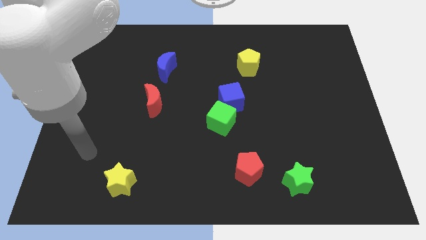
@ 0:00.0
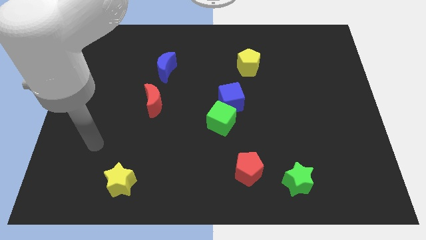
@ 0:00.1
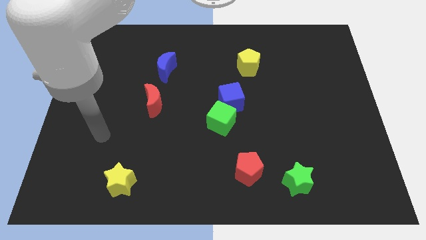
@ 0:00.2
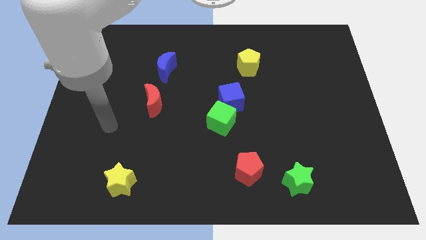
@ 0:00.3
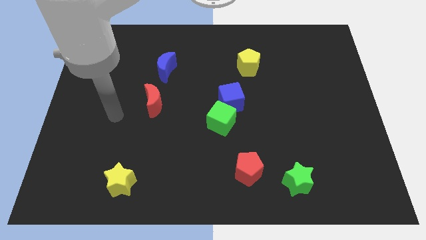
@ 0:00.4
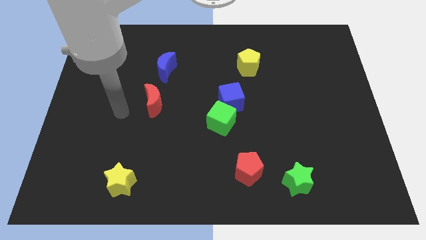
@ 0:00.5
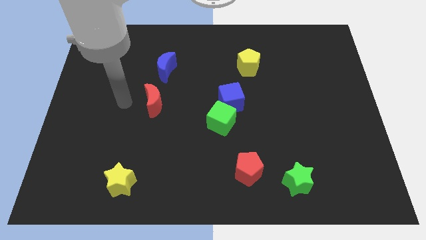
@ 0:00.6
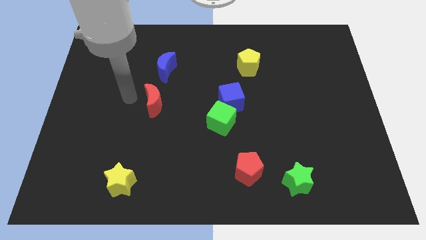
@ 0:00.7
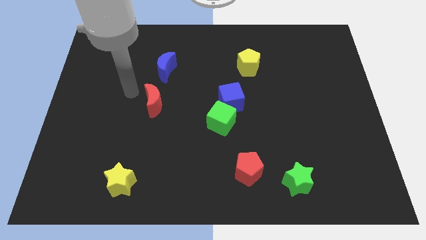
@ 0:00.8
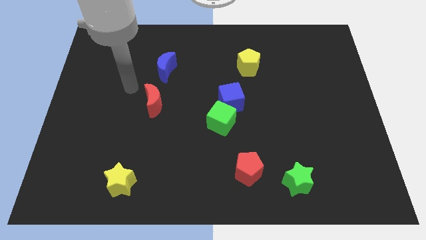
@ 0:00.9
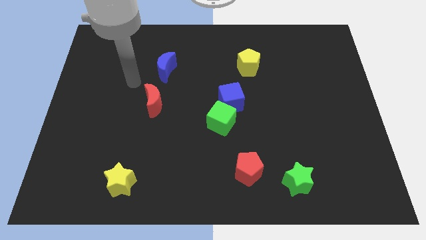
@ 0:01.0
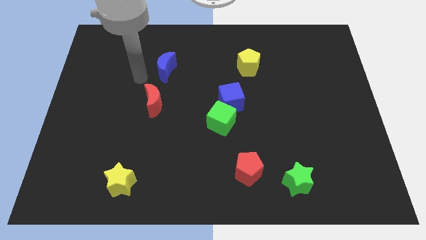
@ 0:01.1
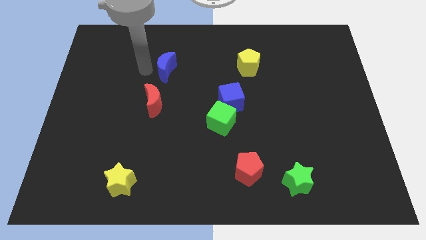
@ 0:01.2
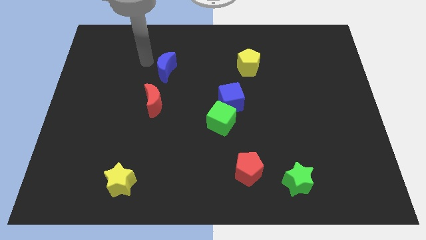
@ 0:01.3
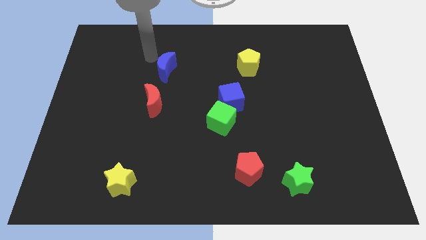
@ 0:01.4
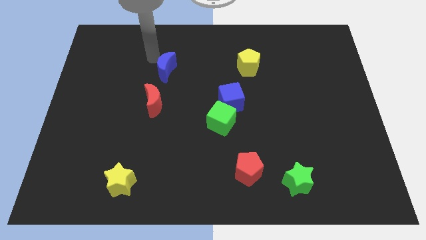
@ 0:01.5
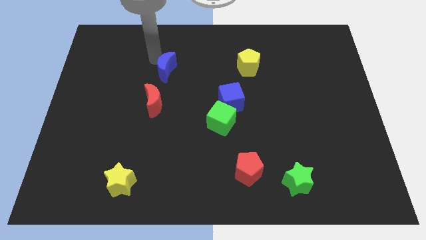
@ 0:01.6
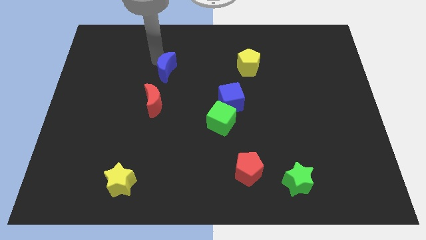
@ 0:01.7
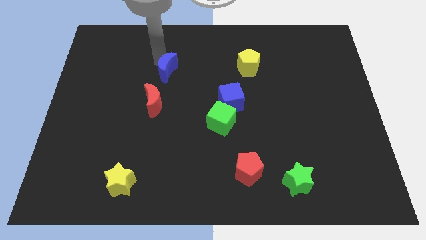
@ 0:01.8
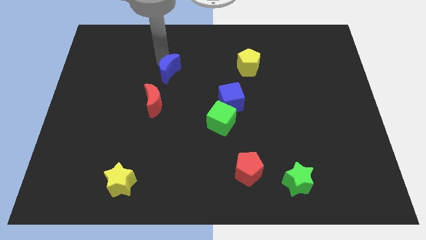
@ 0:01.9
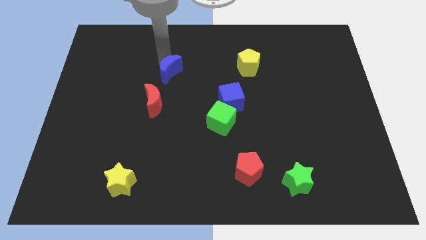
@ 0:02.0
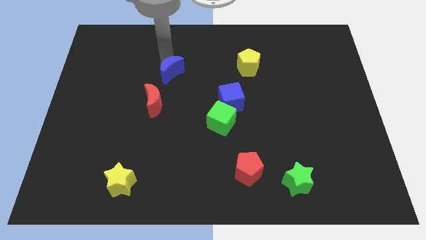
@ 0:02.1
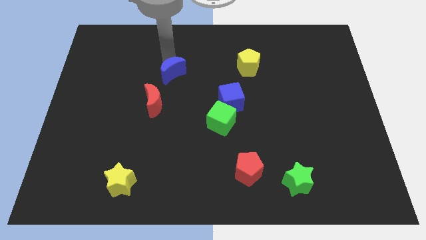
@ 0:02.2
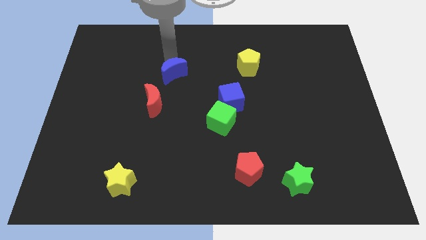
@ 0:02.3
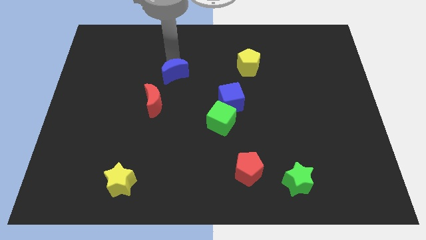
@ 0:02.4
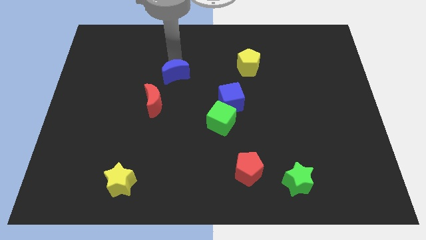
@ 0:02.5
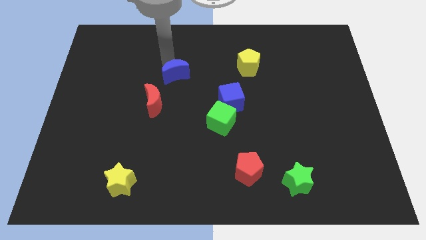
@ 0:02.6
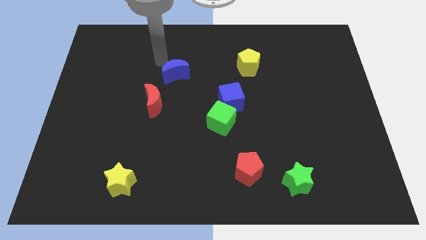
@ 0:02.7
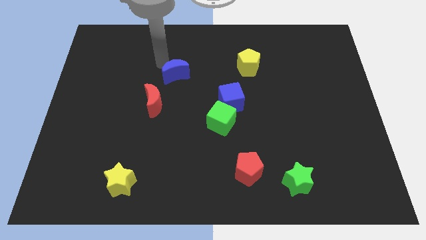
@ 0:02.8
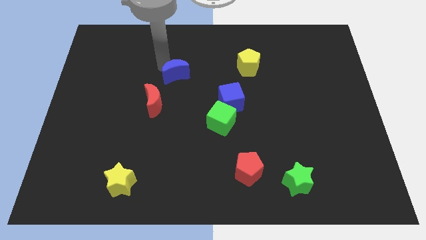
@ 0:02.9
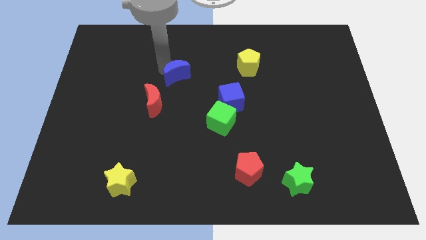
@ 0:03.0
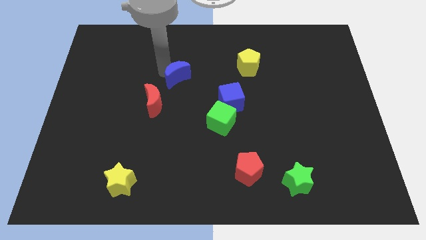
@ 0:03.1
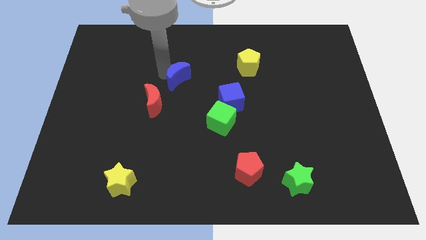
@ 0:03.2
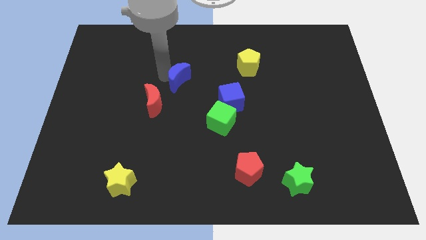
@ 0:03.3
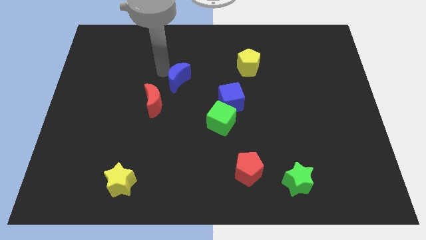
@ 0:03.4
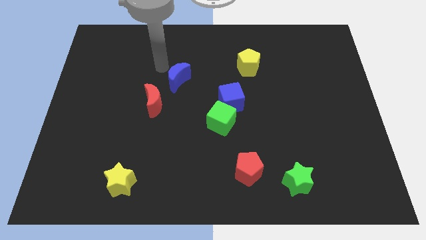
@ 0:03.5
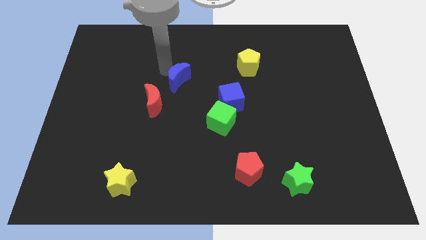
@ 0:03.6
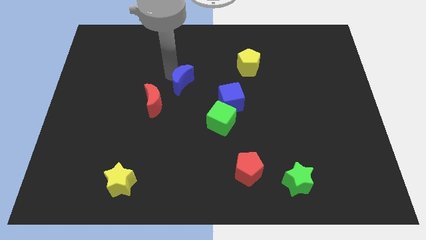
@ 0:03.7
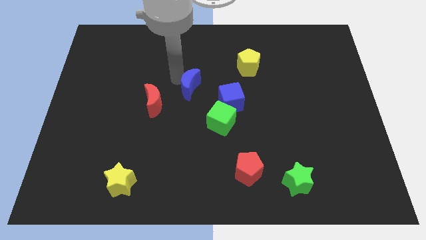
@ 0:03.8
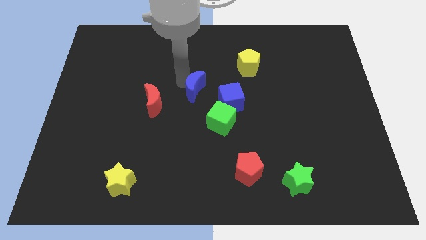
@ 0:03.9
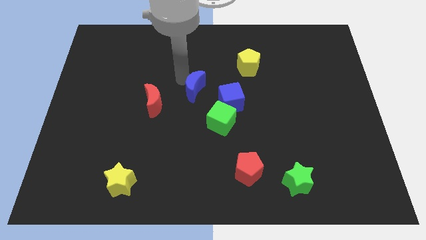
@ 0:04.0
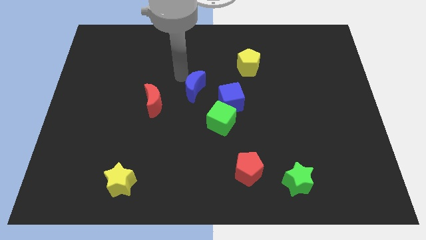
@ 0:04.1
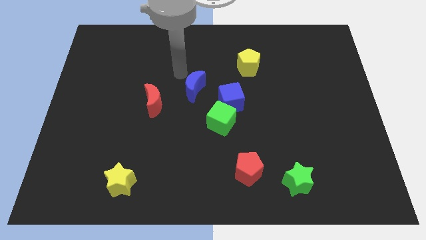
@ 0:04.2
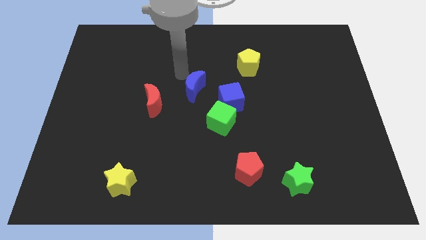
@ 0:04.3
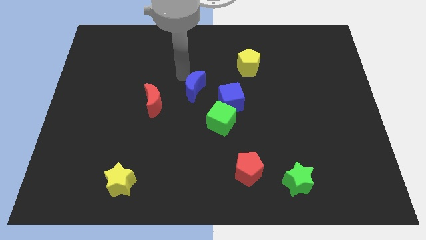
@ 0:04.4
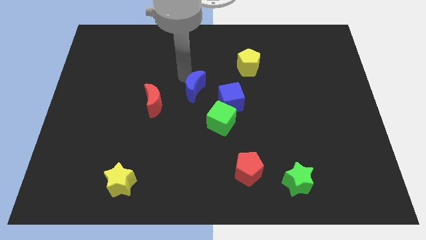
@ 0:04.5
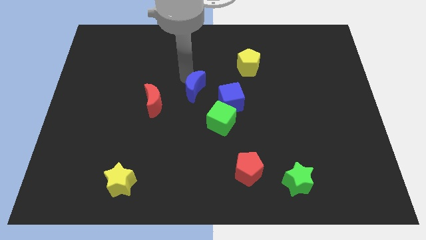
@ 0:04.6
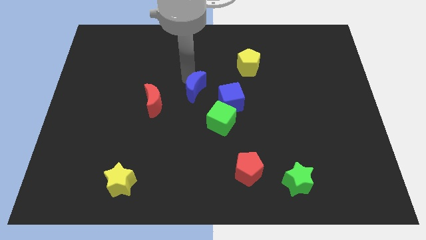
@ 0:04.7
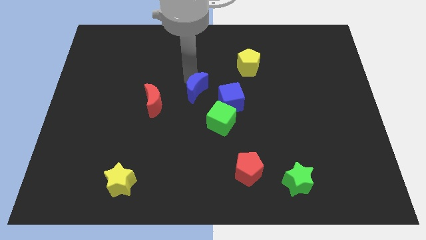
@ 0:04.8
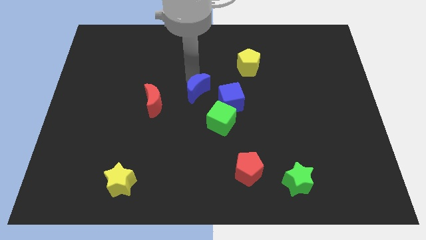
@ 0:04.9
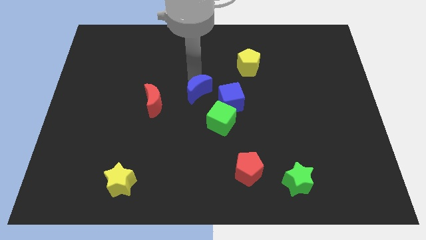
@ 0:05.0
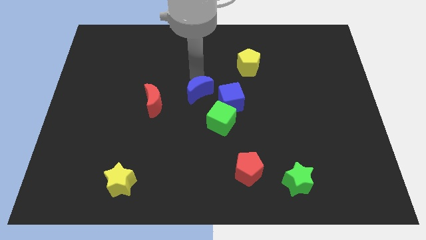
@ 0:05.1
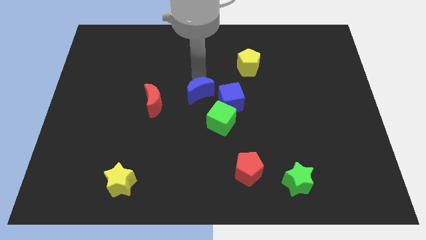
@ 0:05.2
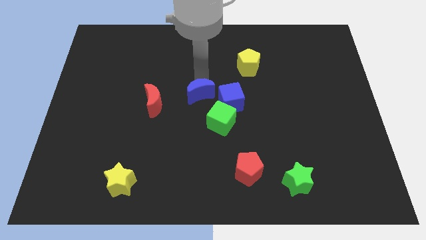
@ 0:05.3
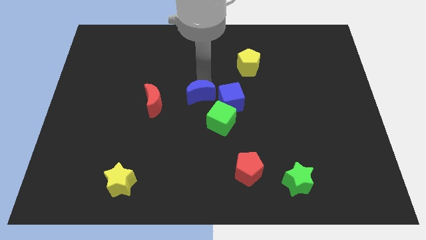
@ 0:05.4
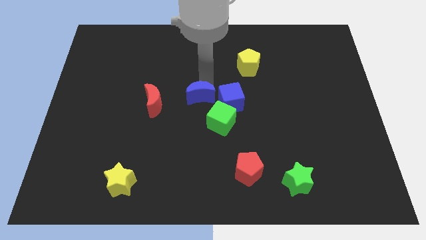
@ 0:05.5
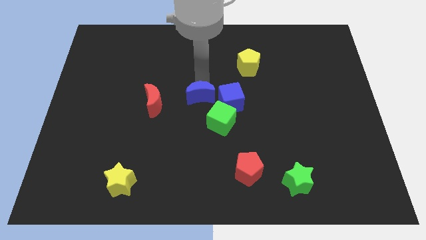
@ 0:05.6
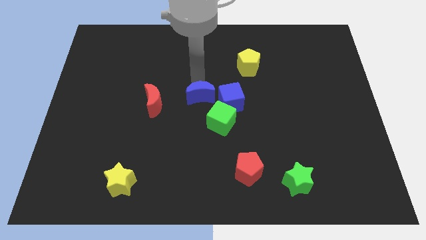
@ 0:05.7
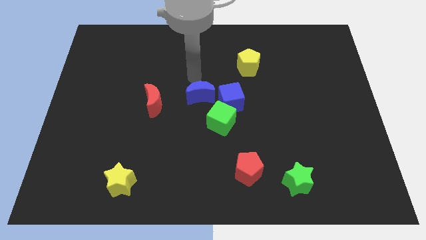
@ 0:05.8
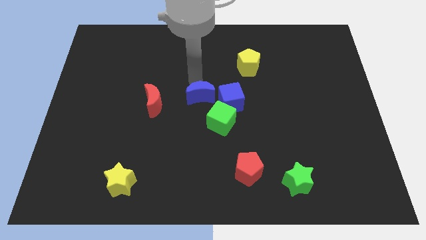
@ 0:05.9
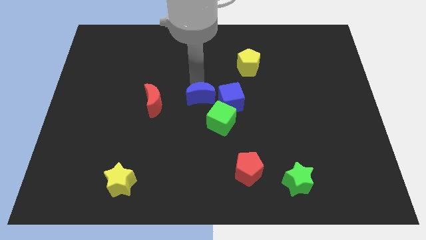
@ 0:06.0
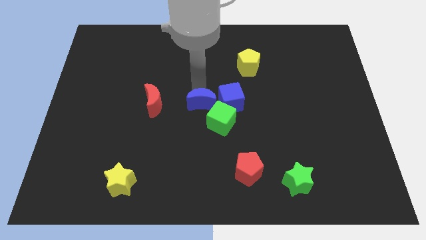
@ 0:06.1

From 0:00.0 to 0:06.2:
slide the blue moon to the bottom left of the blue cube

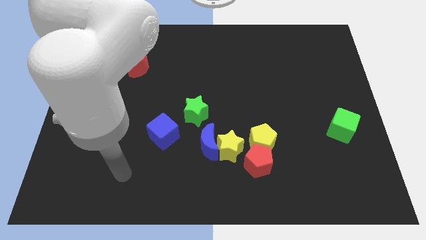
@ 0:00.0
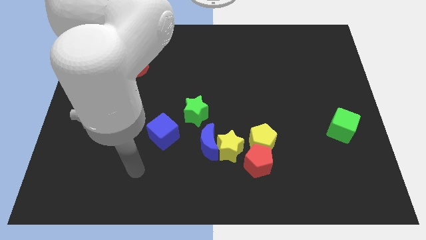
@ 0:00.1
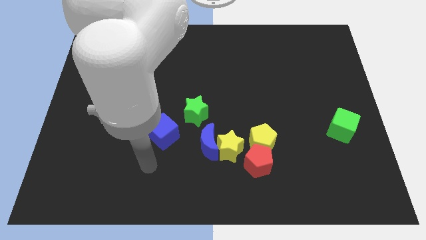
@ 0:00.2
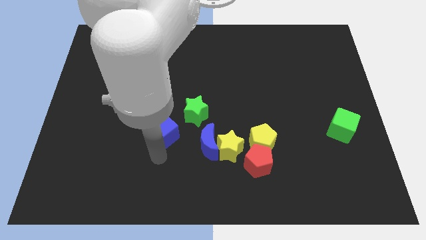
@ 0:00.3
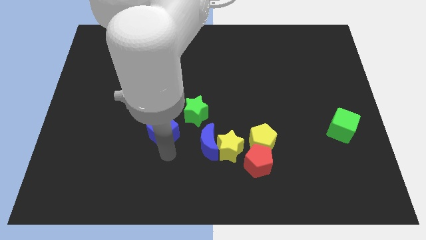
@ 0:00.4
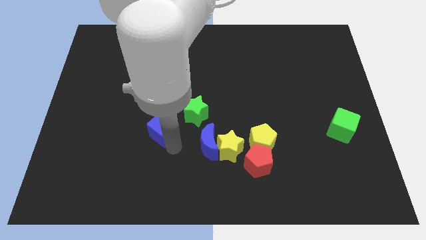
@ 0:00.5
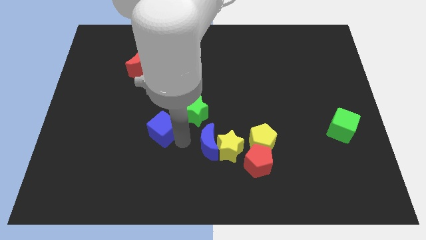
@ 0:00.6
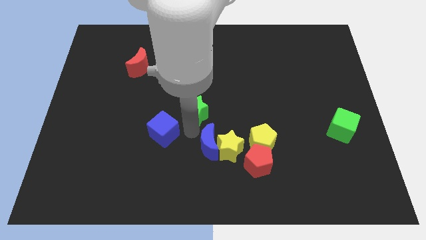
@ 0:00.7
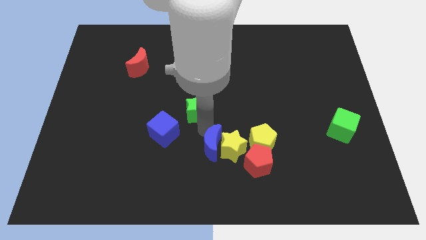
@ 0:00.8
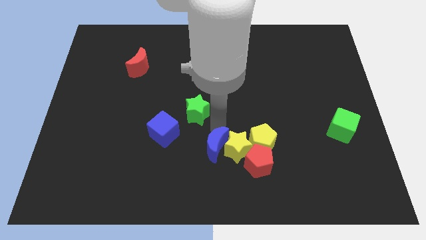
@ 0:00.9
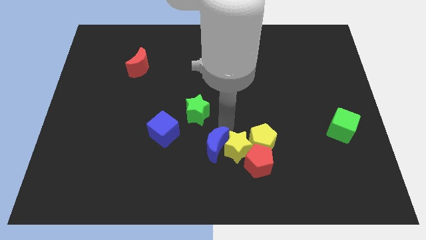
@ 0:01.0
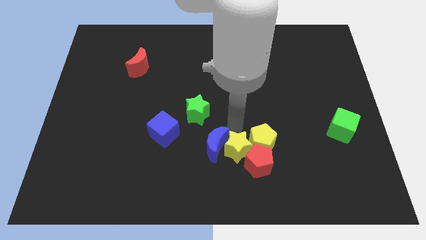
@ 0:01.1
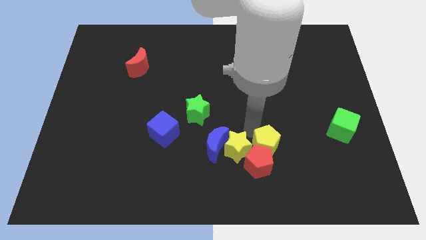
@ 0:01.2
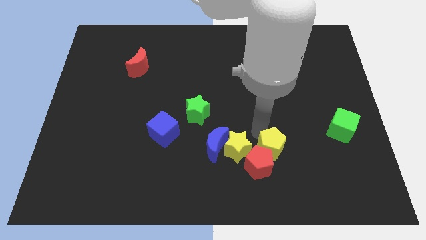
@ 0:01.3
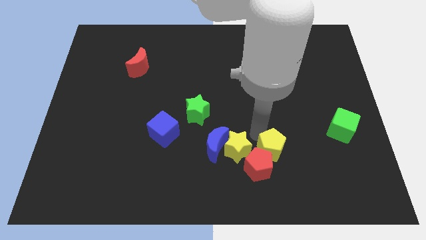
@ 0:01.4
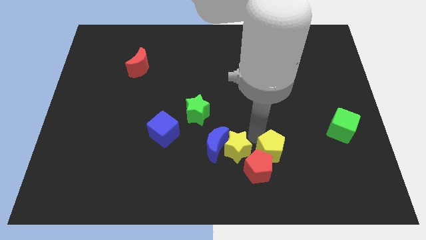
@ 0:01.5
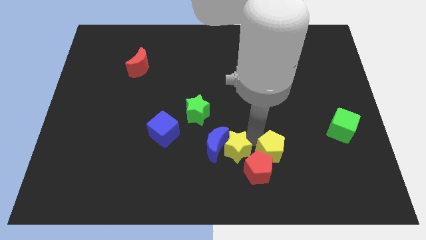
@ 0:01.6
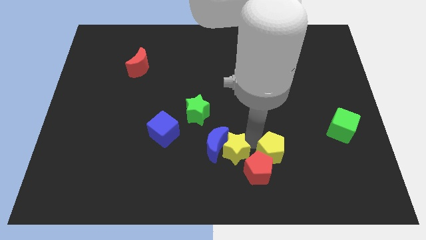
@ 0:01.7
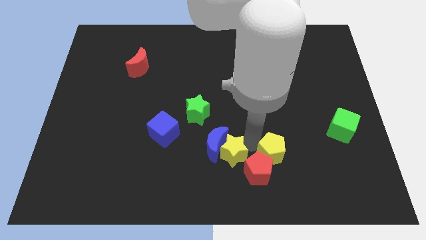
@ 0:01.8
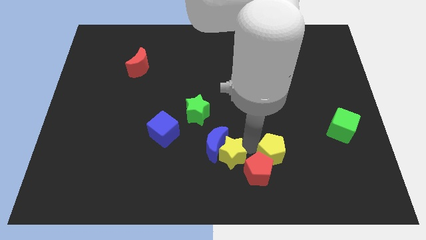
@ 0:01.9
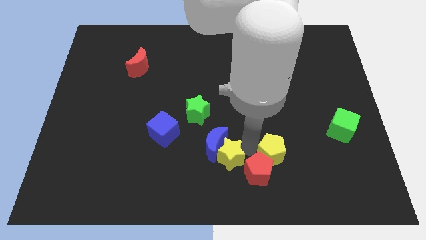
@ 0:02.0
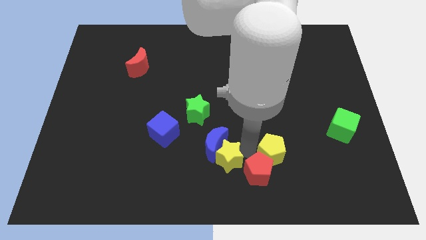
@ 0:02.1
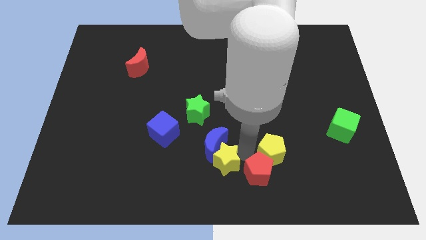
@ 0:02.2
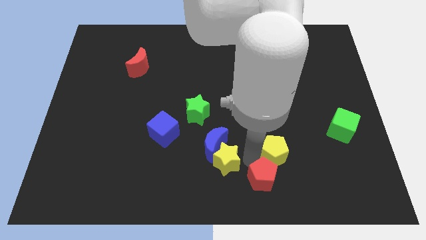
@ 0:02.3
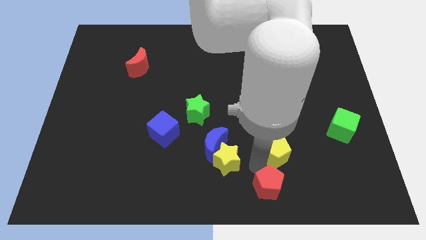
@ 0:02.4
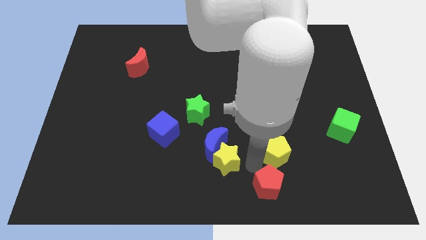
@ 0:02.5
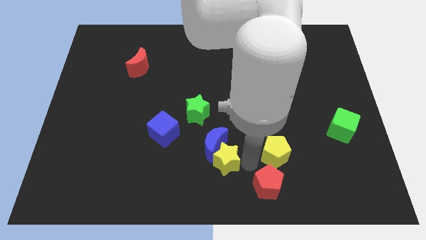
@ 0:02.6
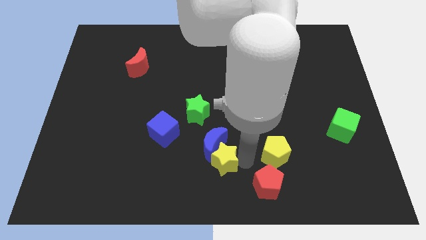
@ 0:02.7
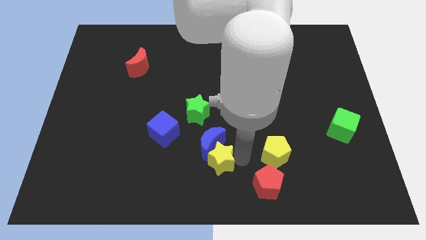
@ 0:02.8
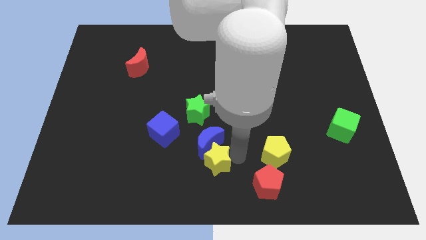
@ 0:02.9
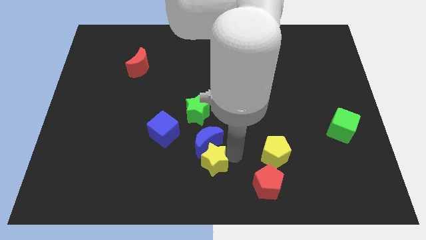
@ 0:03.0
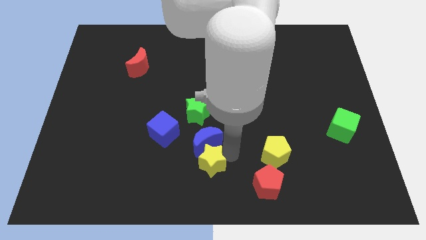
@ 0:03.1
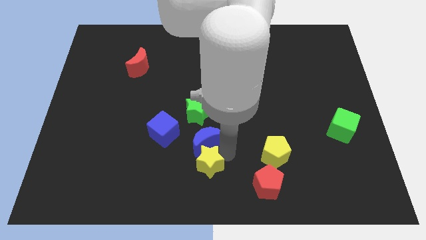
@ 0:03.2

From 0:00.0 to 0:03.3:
slide the yellow star diagonally down and to the right of the blue cube
